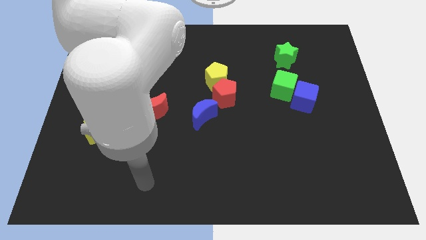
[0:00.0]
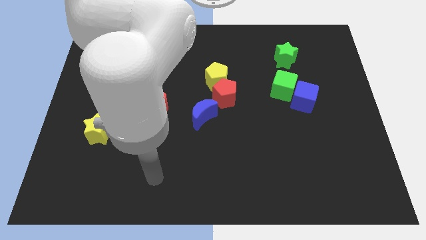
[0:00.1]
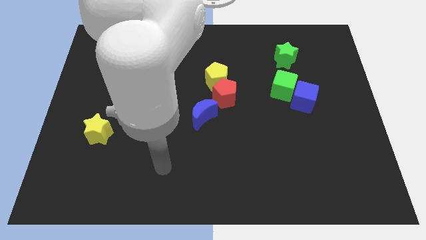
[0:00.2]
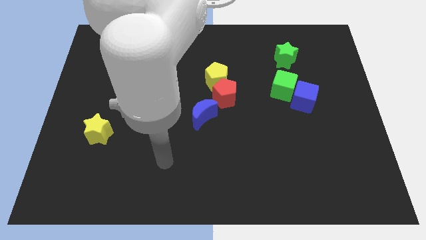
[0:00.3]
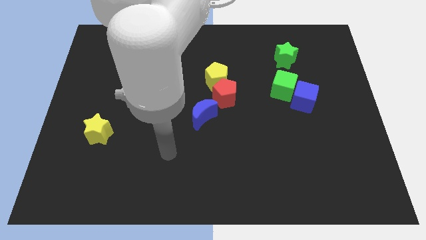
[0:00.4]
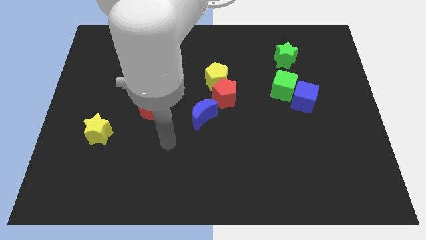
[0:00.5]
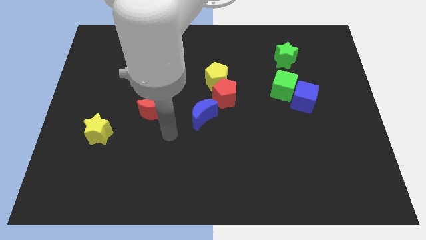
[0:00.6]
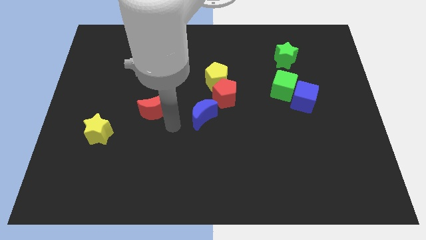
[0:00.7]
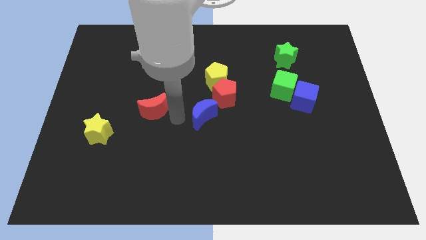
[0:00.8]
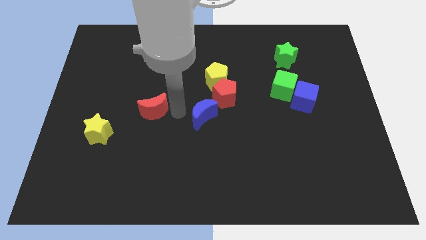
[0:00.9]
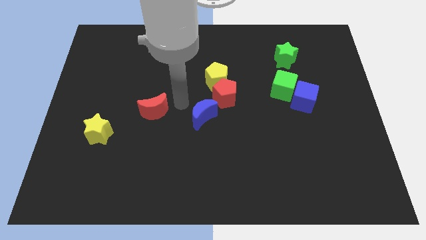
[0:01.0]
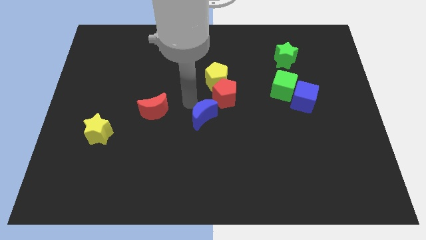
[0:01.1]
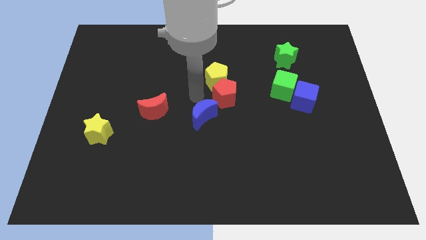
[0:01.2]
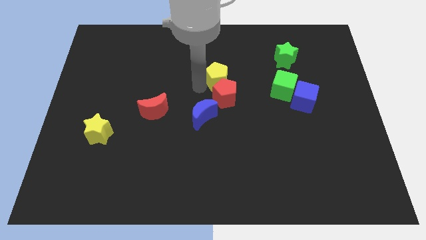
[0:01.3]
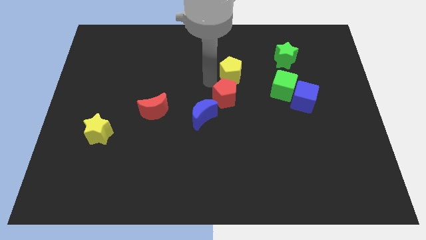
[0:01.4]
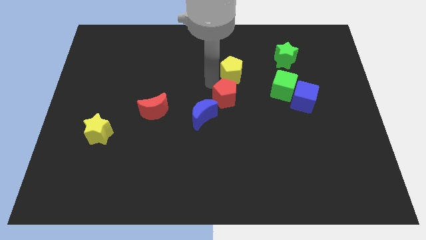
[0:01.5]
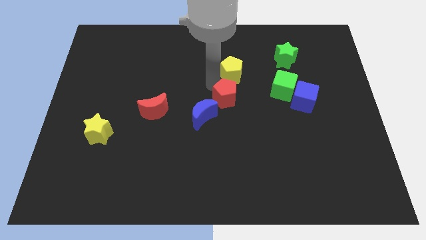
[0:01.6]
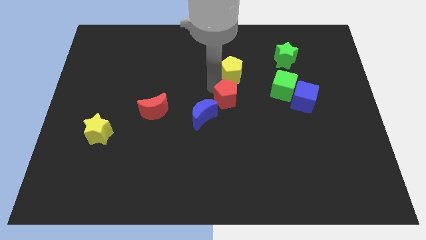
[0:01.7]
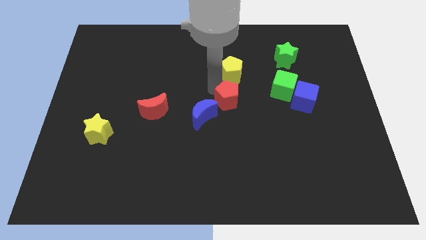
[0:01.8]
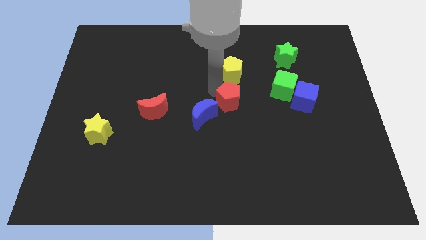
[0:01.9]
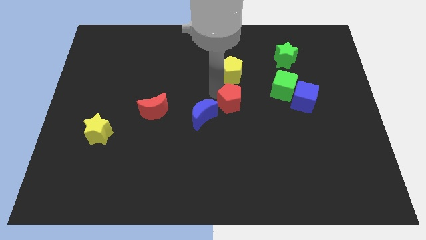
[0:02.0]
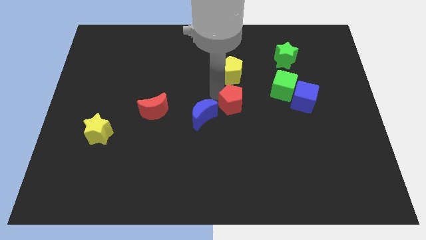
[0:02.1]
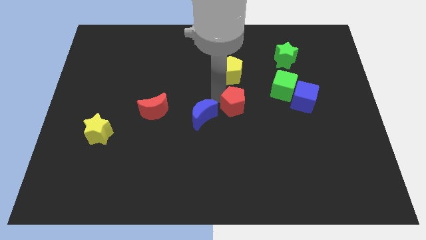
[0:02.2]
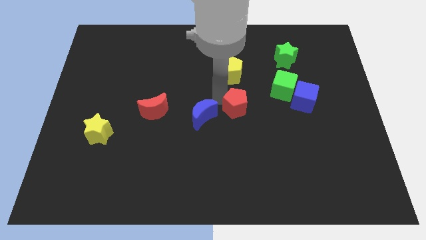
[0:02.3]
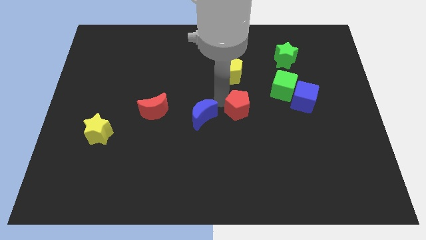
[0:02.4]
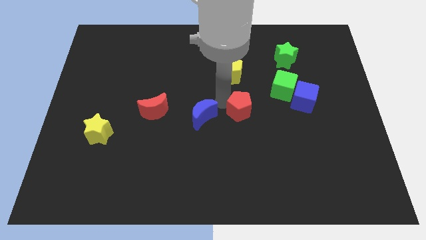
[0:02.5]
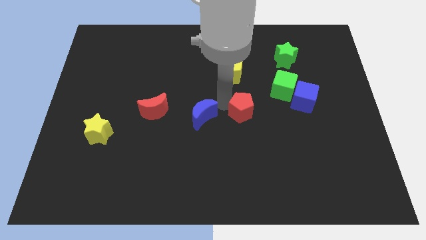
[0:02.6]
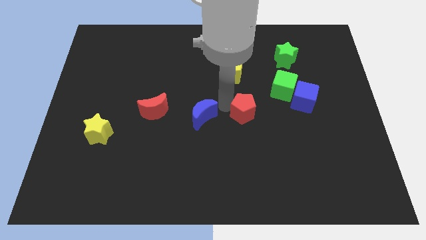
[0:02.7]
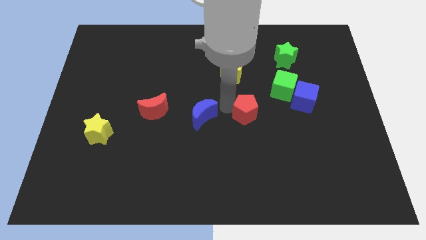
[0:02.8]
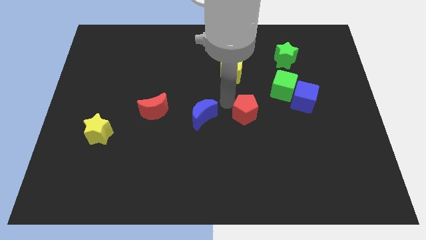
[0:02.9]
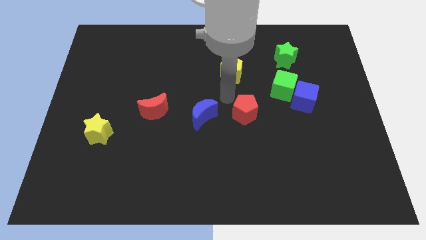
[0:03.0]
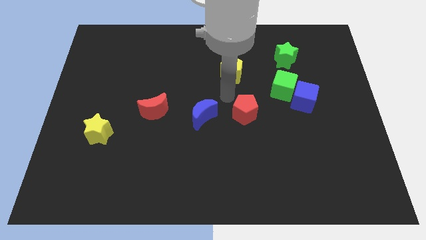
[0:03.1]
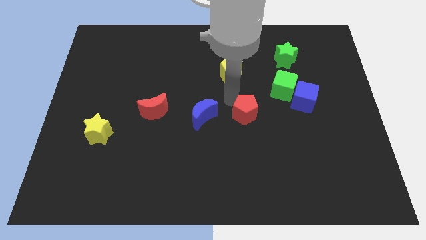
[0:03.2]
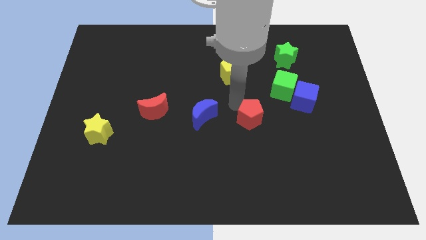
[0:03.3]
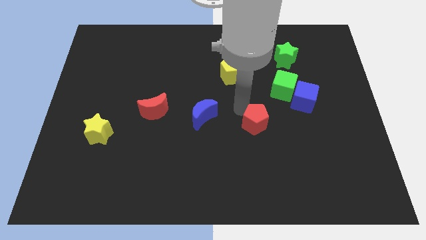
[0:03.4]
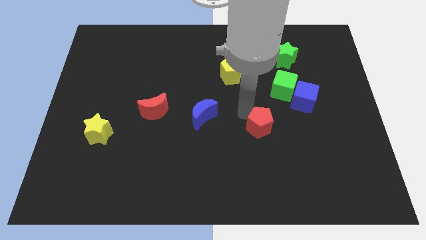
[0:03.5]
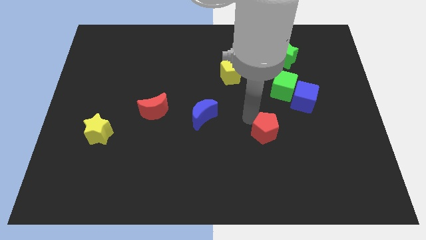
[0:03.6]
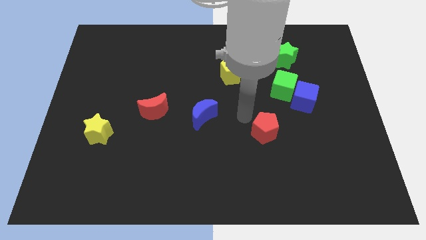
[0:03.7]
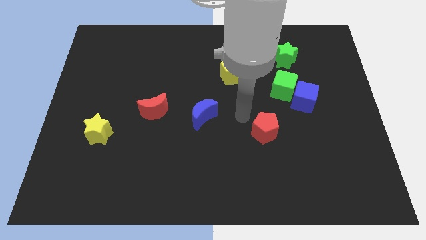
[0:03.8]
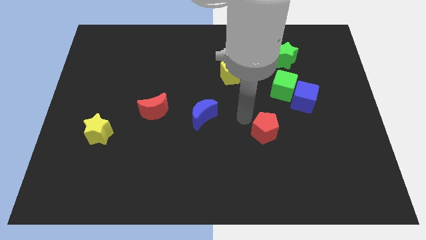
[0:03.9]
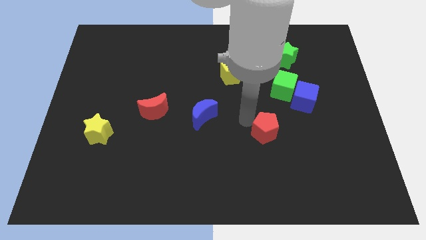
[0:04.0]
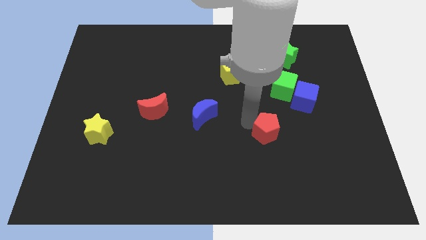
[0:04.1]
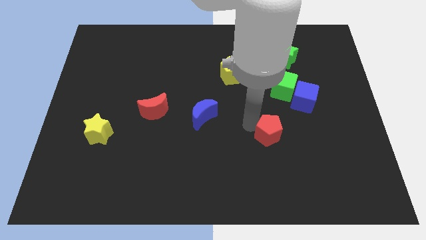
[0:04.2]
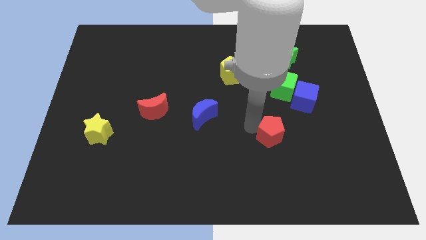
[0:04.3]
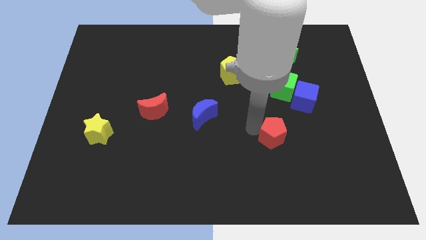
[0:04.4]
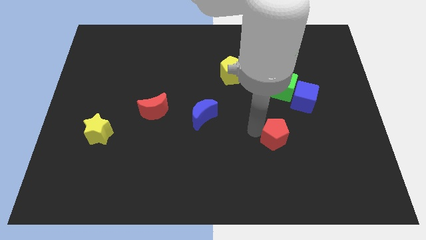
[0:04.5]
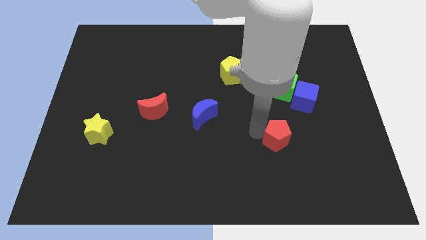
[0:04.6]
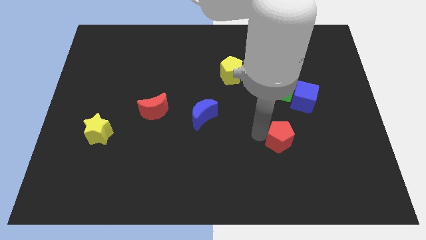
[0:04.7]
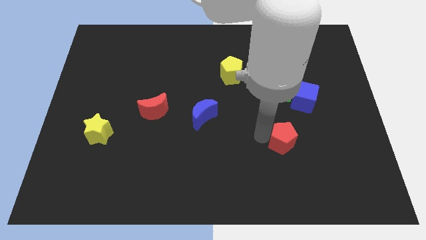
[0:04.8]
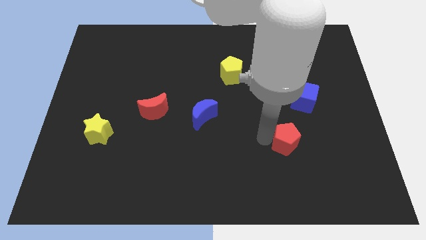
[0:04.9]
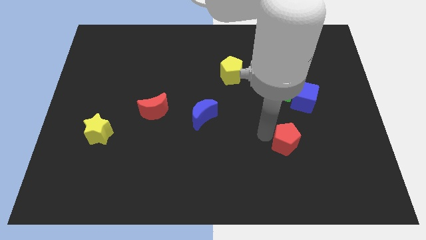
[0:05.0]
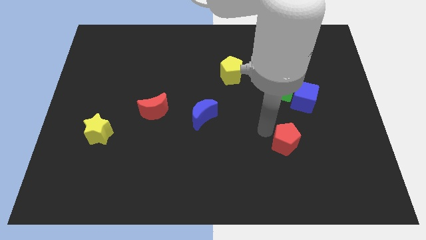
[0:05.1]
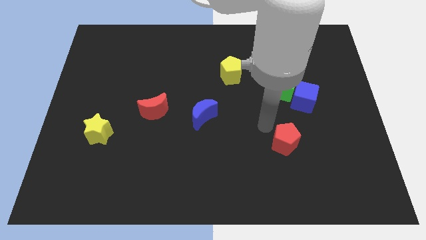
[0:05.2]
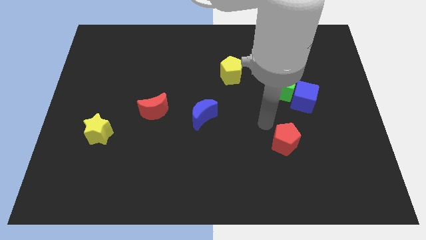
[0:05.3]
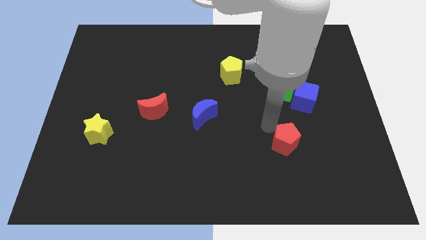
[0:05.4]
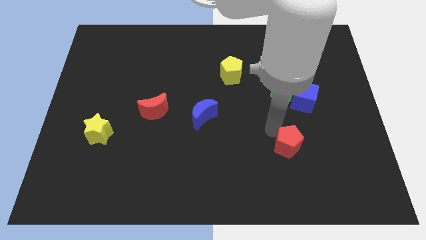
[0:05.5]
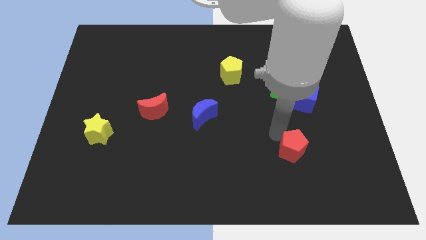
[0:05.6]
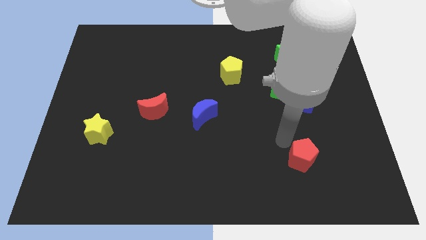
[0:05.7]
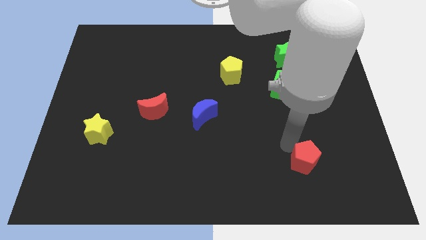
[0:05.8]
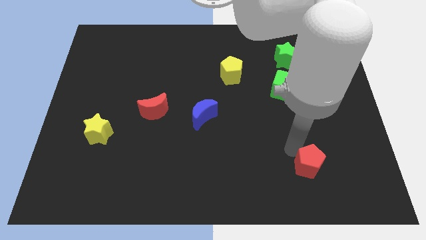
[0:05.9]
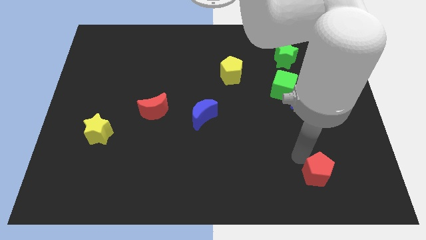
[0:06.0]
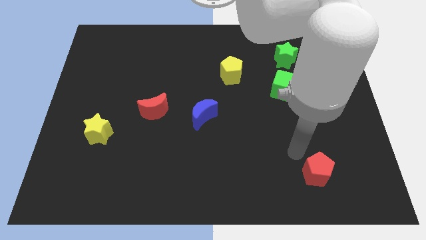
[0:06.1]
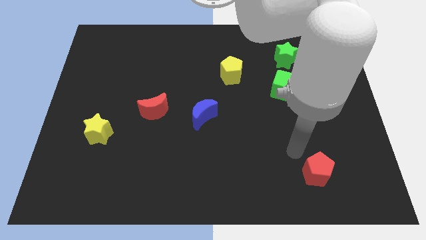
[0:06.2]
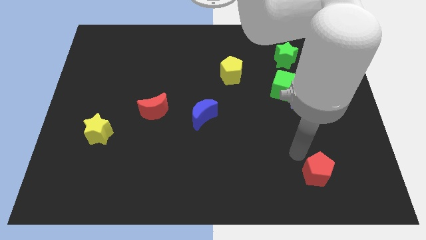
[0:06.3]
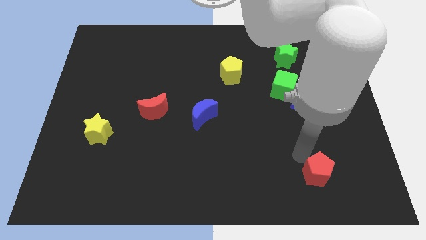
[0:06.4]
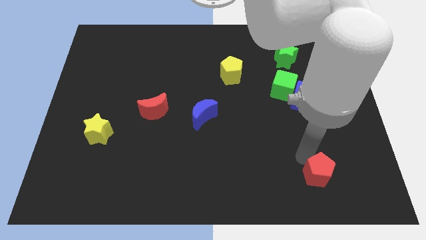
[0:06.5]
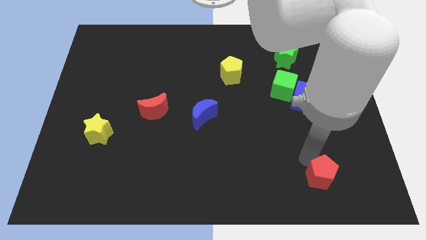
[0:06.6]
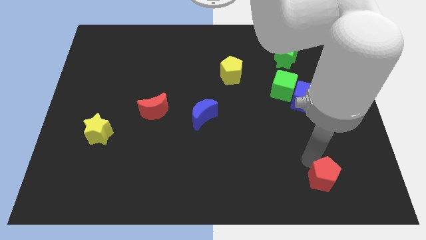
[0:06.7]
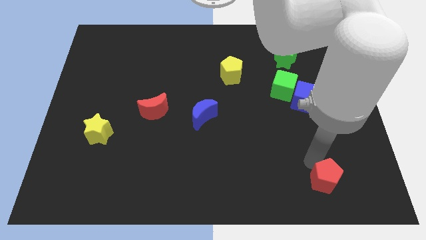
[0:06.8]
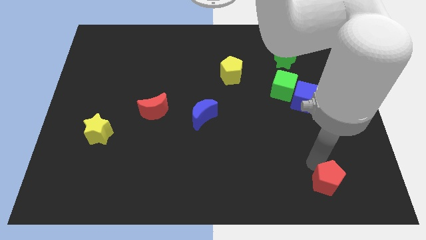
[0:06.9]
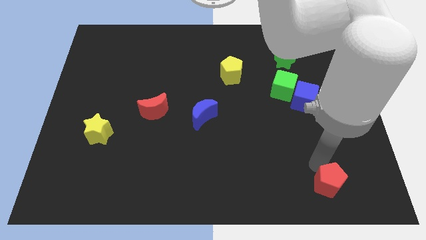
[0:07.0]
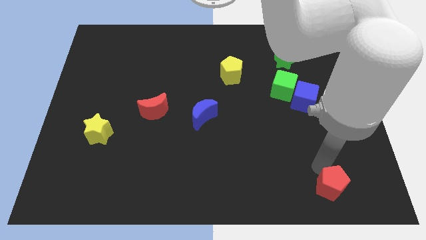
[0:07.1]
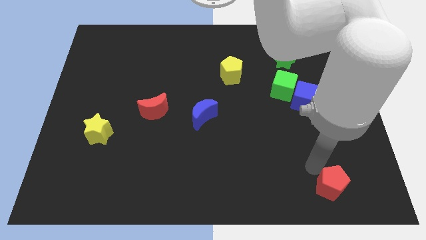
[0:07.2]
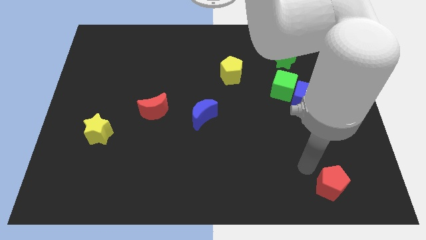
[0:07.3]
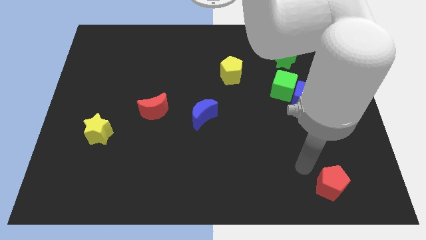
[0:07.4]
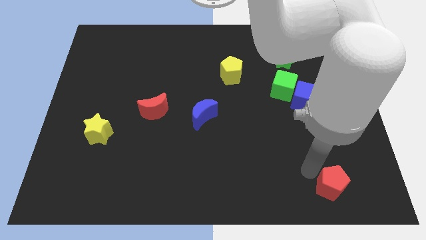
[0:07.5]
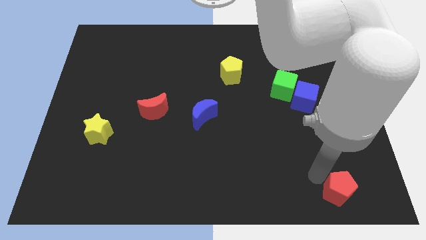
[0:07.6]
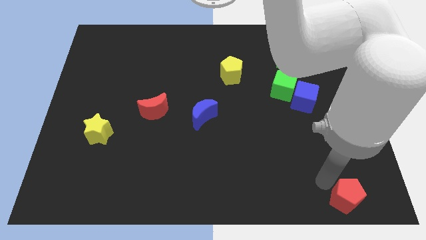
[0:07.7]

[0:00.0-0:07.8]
move the red pentagon to the lower right corner
